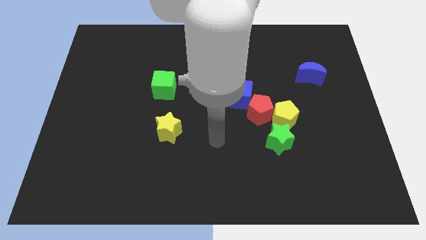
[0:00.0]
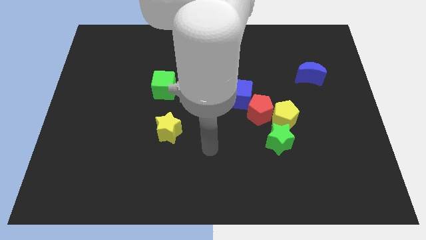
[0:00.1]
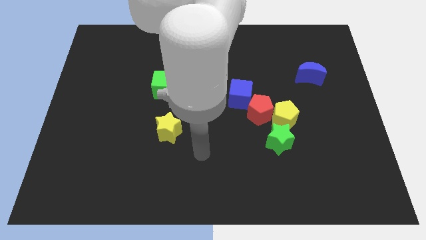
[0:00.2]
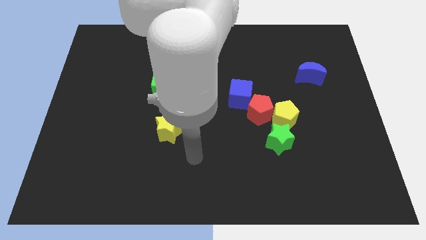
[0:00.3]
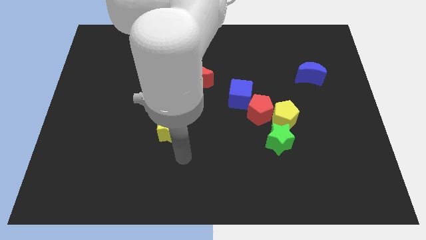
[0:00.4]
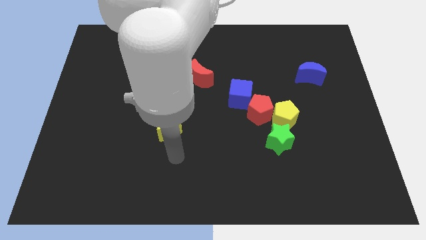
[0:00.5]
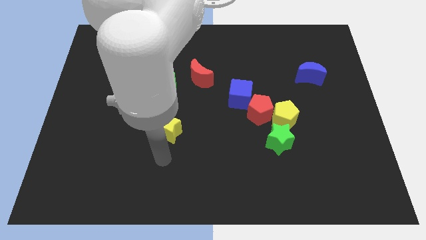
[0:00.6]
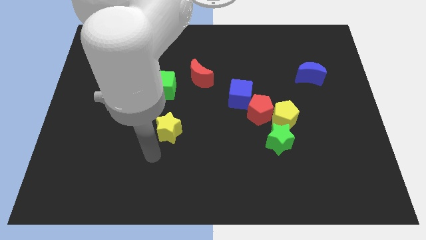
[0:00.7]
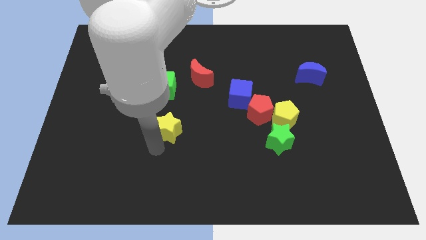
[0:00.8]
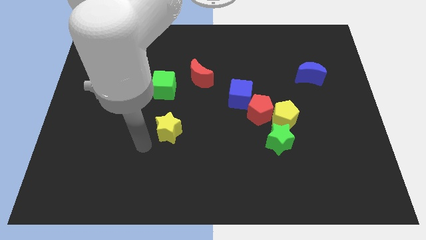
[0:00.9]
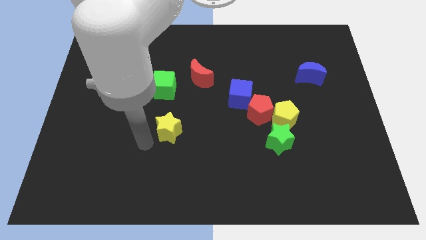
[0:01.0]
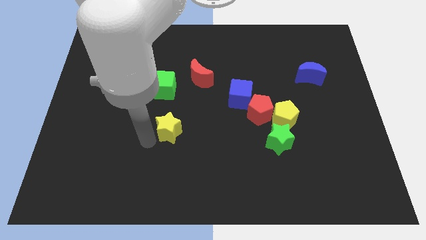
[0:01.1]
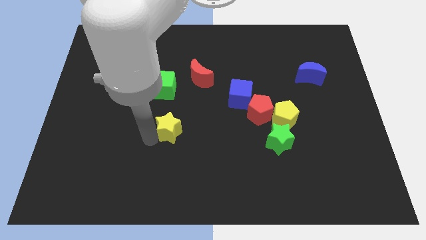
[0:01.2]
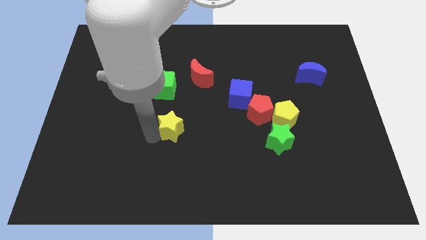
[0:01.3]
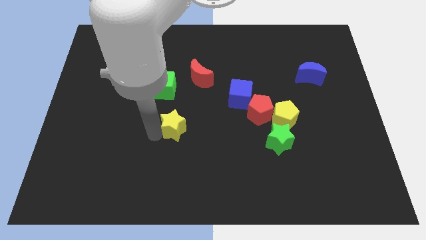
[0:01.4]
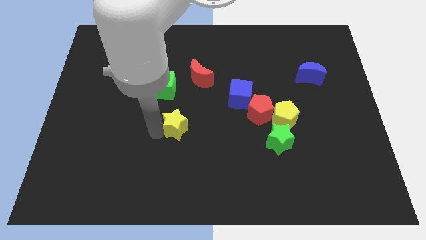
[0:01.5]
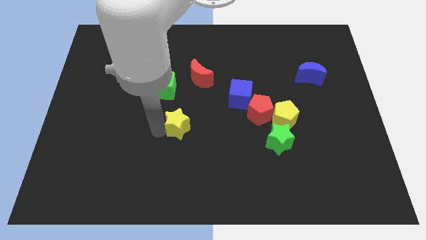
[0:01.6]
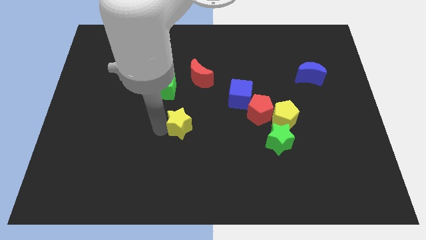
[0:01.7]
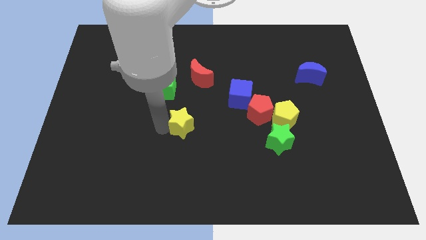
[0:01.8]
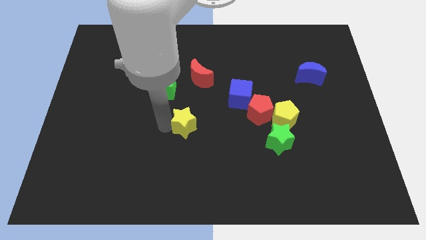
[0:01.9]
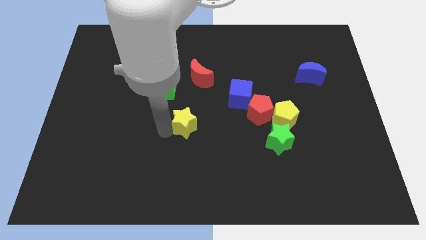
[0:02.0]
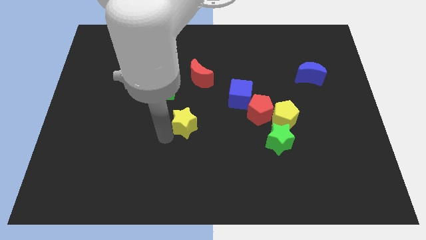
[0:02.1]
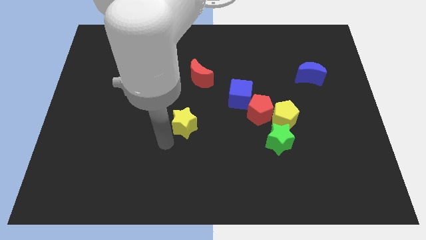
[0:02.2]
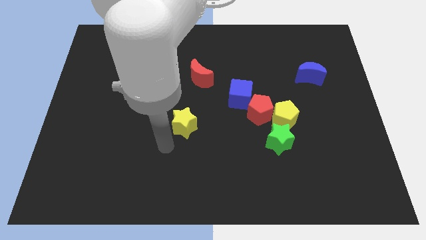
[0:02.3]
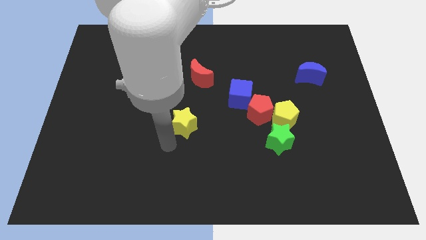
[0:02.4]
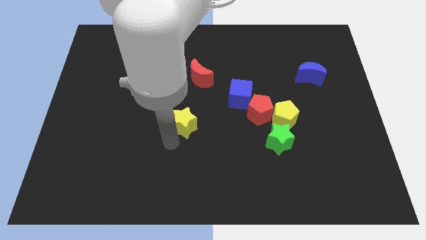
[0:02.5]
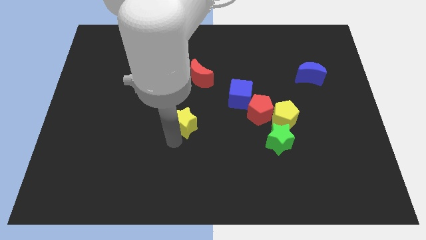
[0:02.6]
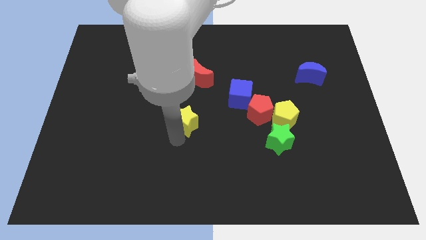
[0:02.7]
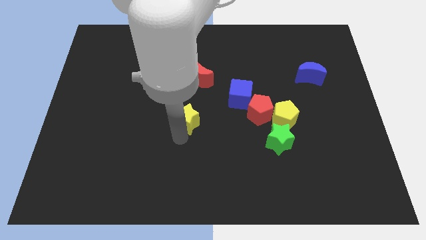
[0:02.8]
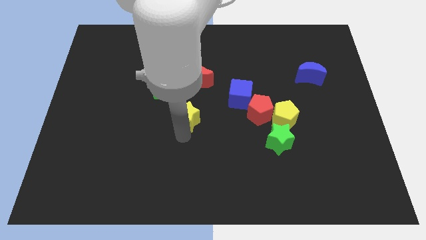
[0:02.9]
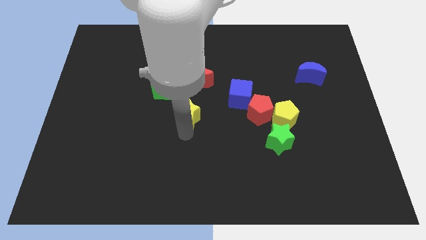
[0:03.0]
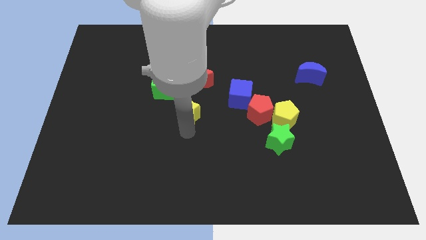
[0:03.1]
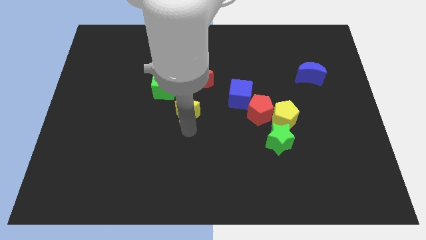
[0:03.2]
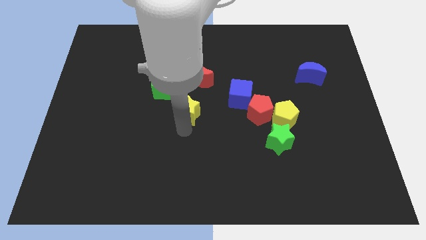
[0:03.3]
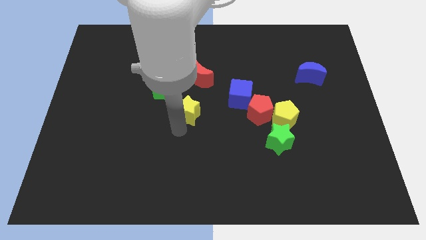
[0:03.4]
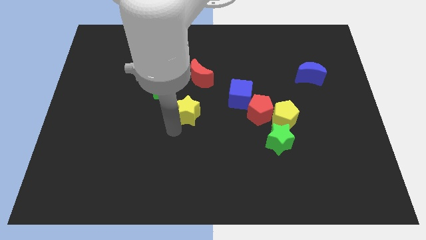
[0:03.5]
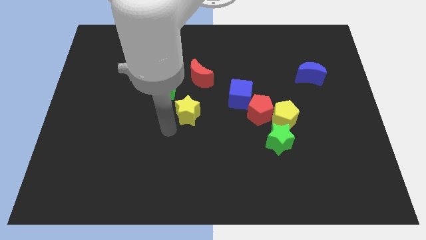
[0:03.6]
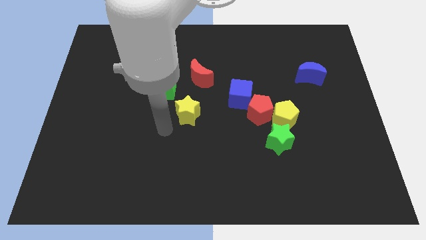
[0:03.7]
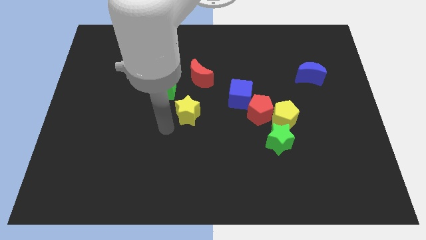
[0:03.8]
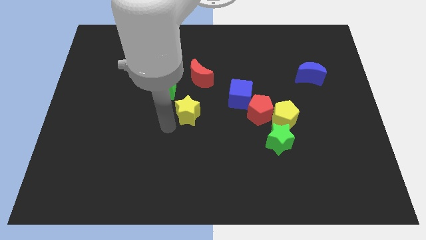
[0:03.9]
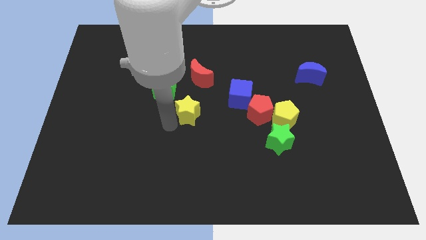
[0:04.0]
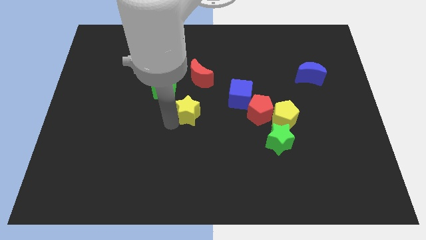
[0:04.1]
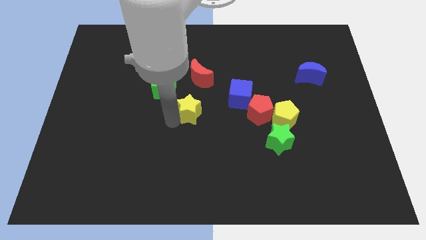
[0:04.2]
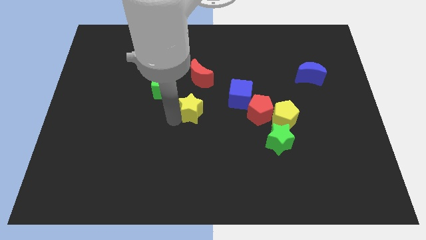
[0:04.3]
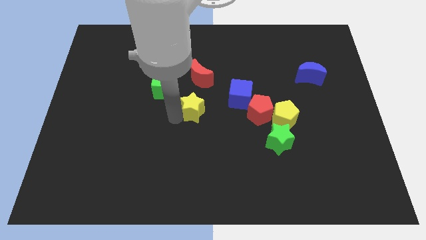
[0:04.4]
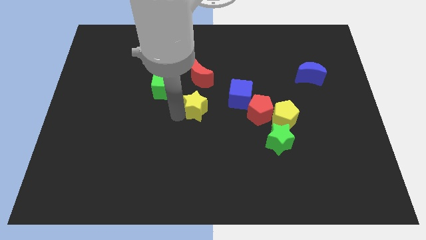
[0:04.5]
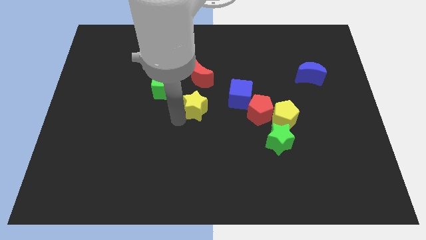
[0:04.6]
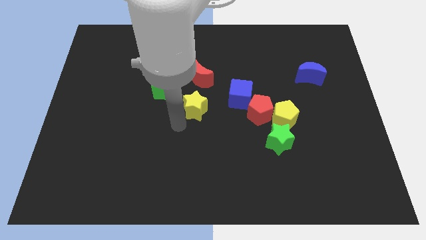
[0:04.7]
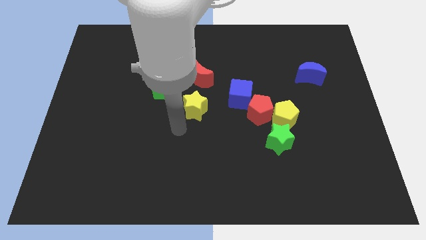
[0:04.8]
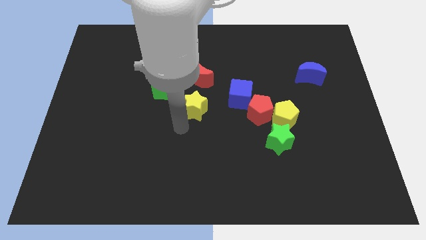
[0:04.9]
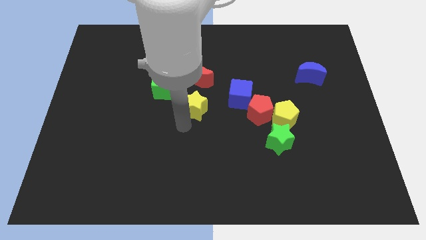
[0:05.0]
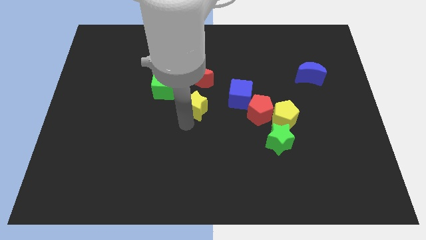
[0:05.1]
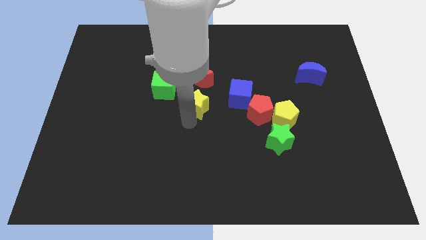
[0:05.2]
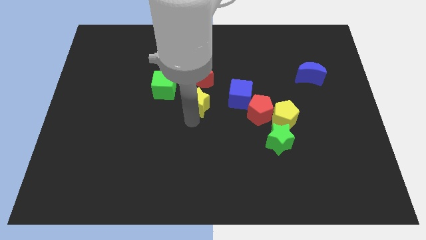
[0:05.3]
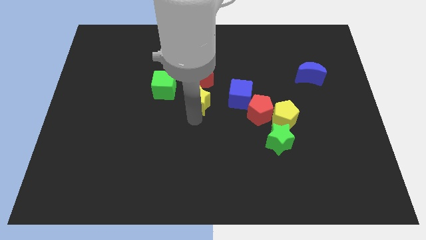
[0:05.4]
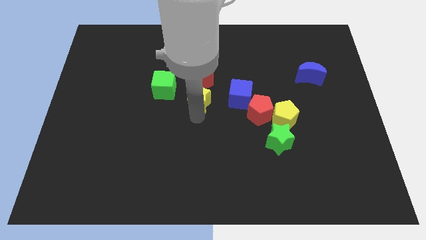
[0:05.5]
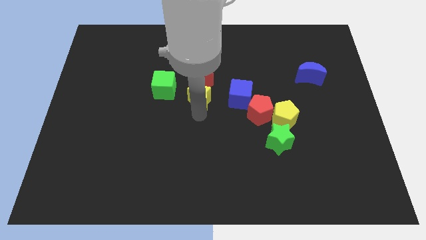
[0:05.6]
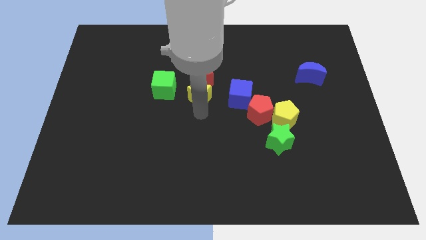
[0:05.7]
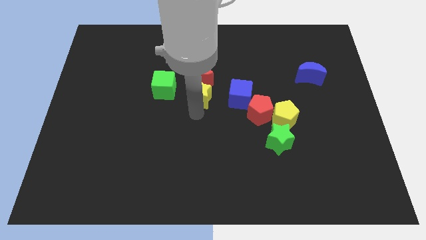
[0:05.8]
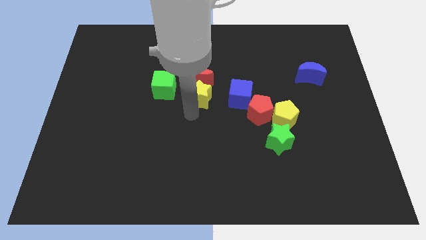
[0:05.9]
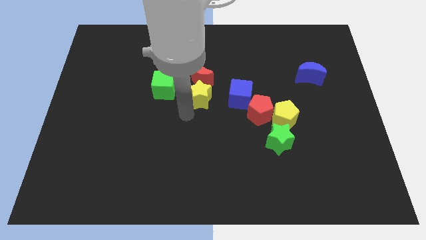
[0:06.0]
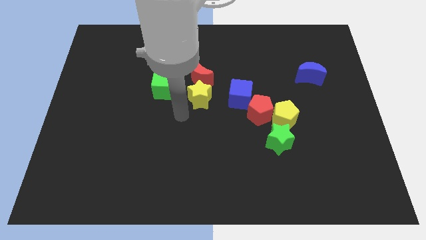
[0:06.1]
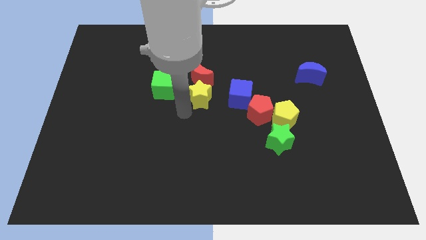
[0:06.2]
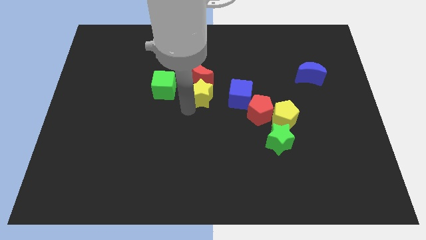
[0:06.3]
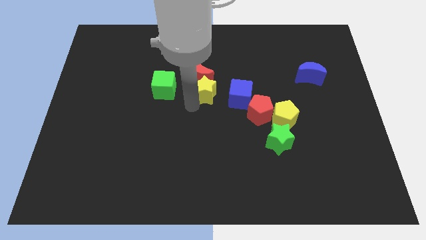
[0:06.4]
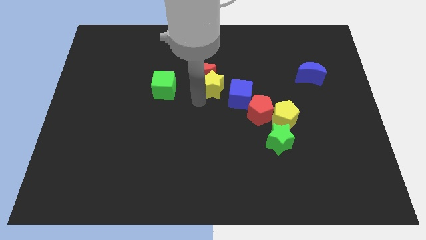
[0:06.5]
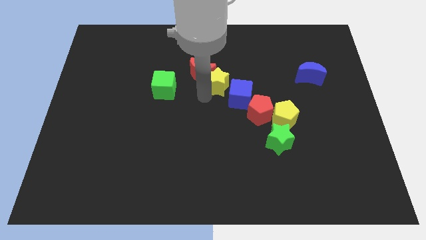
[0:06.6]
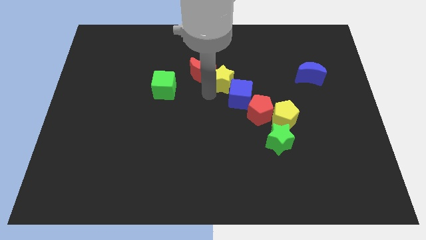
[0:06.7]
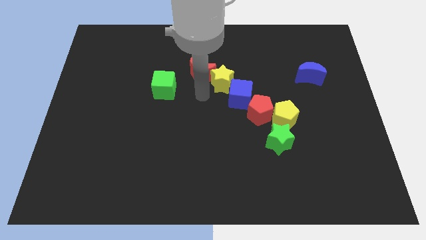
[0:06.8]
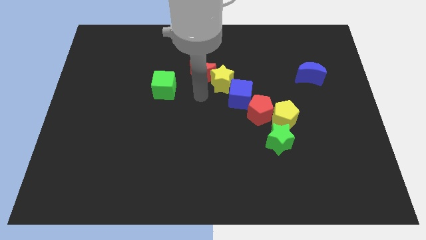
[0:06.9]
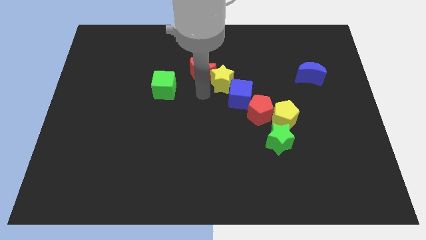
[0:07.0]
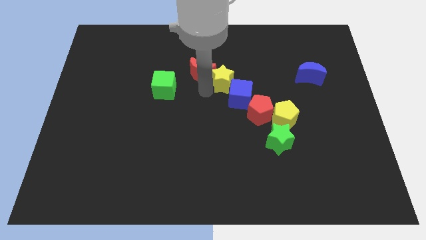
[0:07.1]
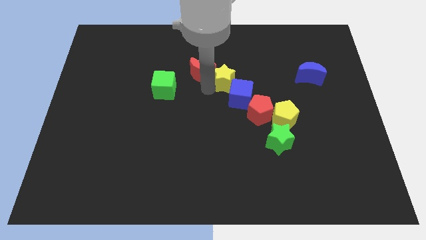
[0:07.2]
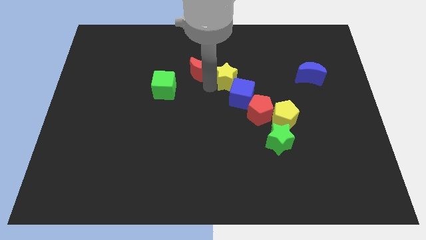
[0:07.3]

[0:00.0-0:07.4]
push the yellow star upwards and to the right diagonally

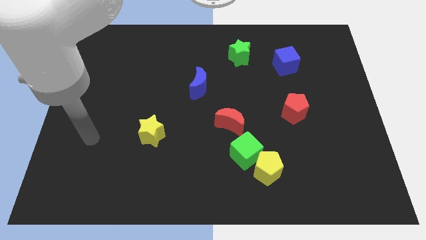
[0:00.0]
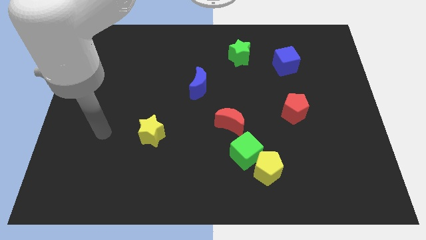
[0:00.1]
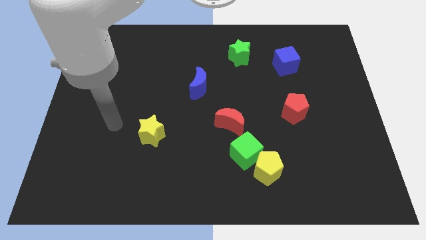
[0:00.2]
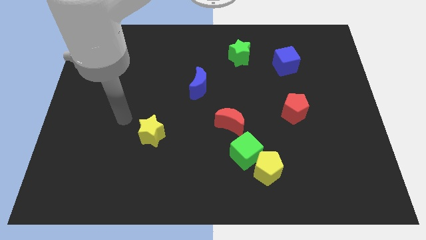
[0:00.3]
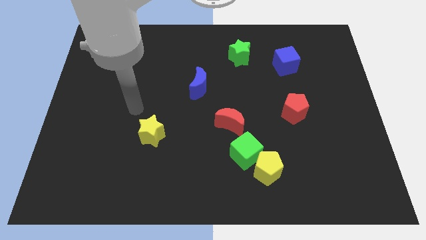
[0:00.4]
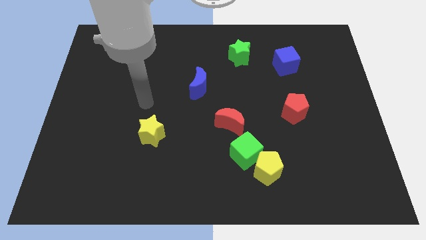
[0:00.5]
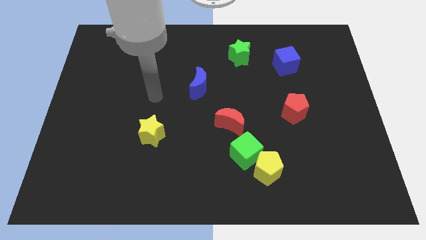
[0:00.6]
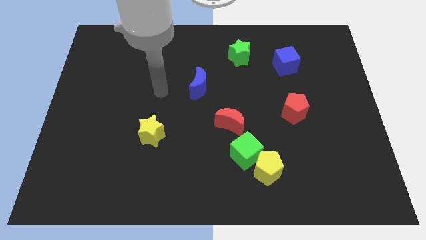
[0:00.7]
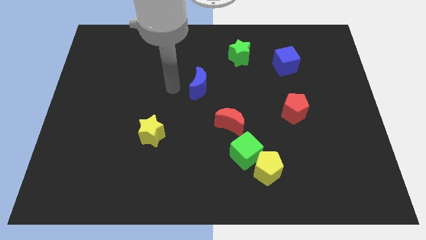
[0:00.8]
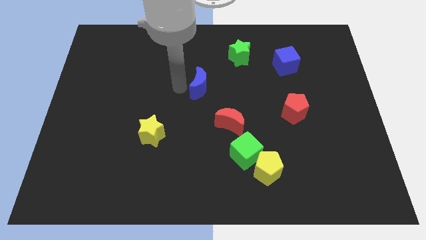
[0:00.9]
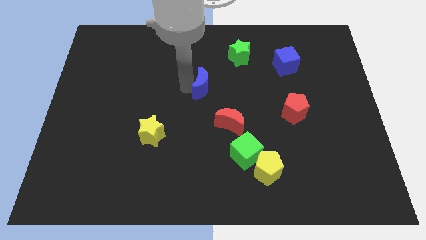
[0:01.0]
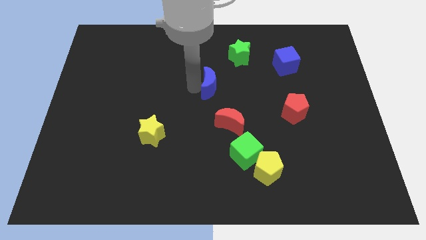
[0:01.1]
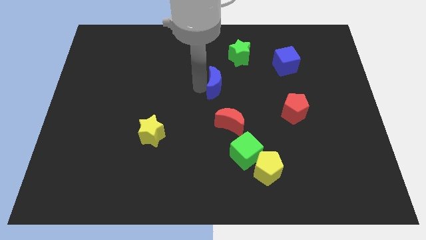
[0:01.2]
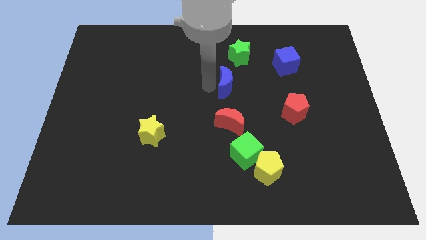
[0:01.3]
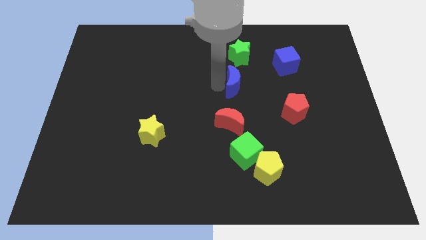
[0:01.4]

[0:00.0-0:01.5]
slide the blue moon slightly right
